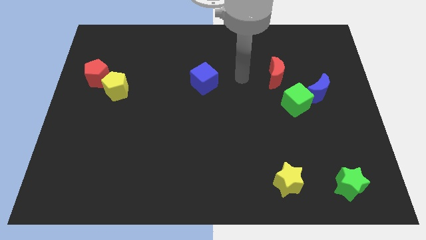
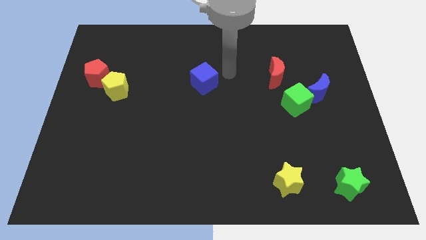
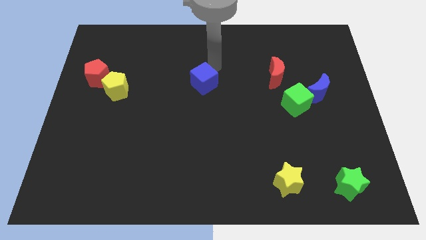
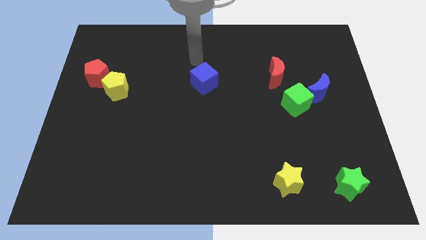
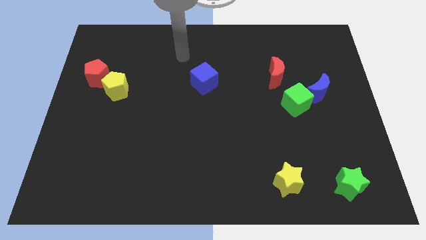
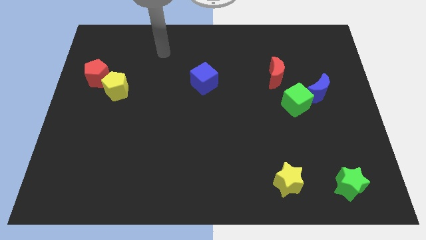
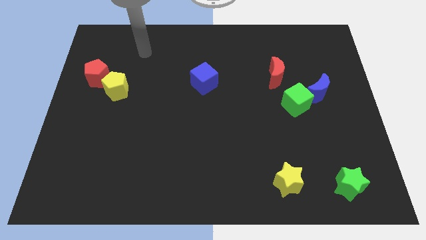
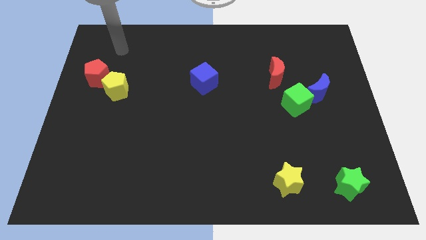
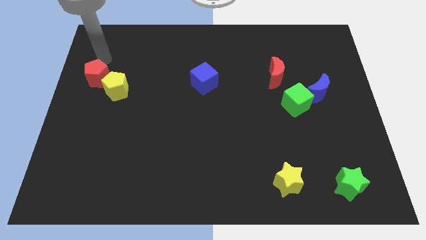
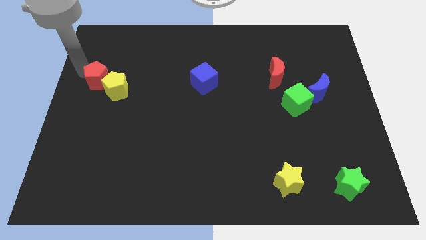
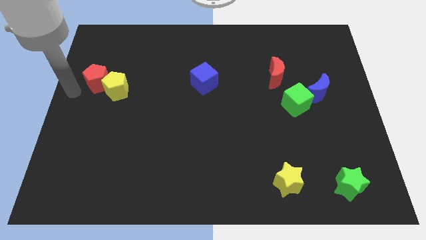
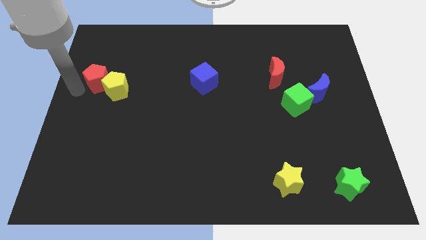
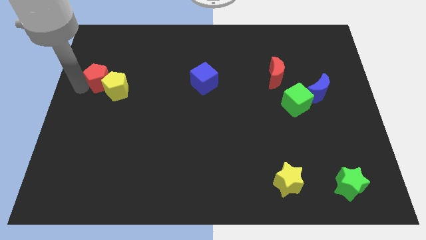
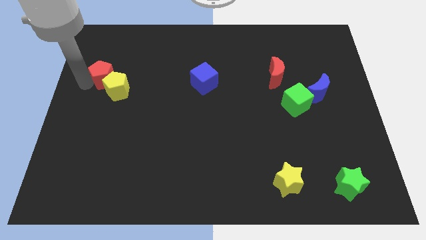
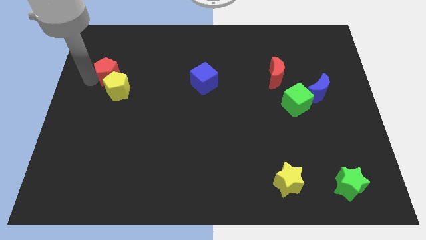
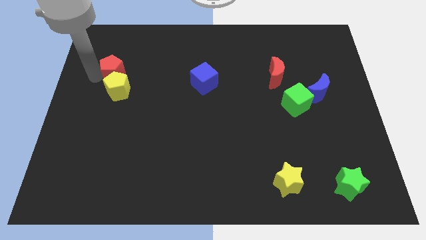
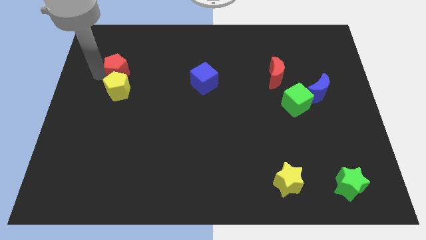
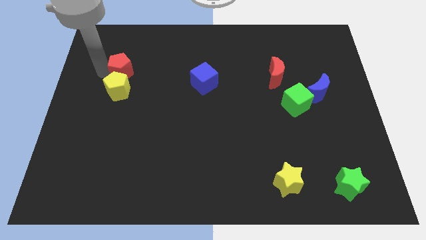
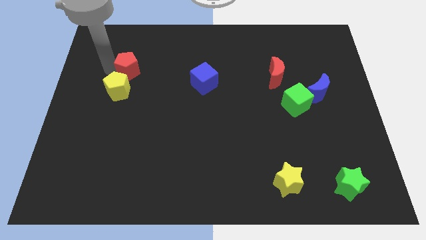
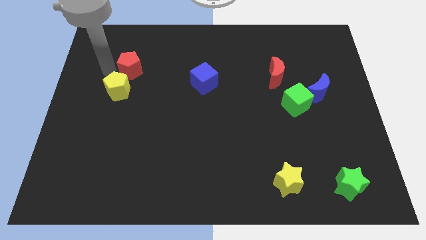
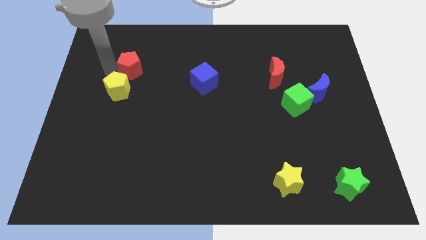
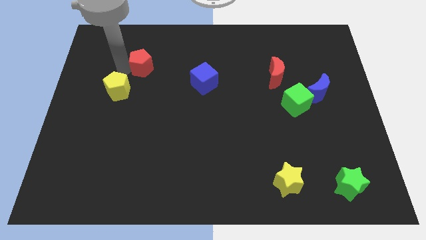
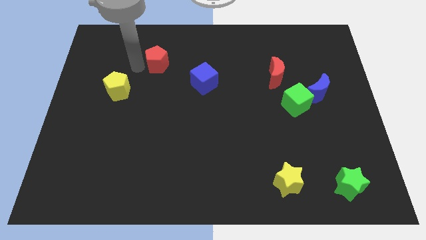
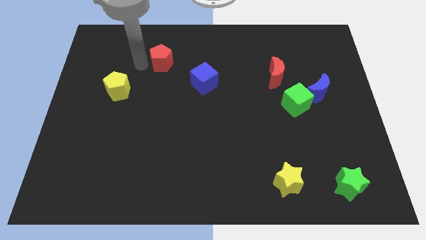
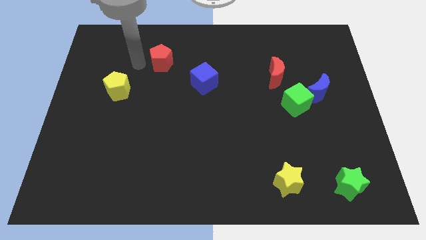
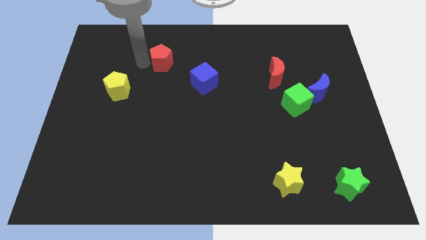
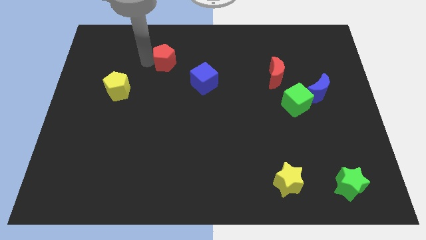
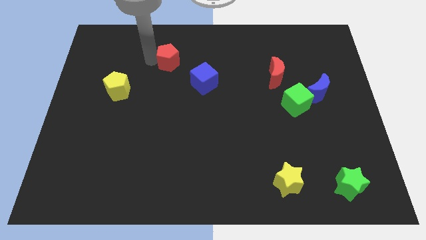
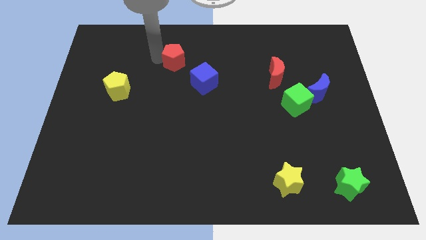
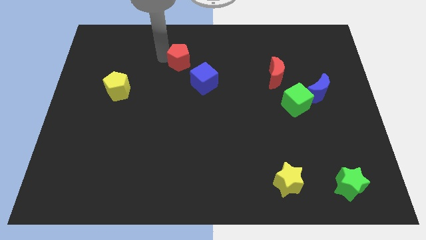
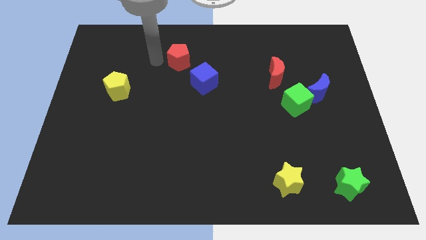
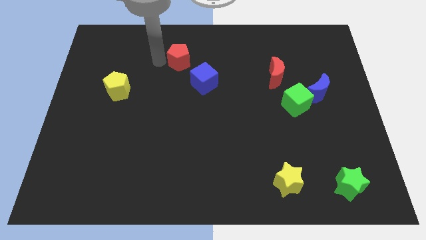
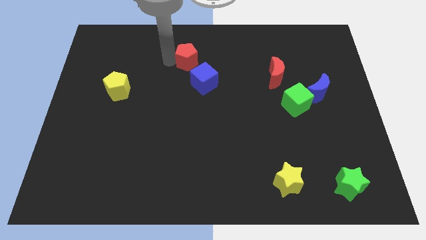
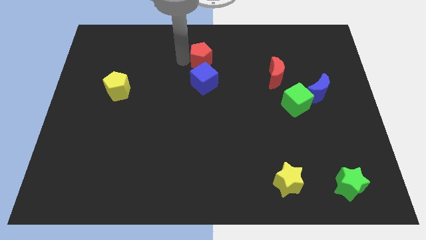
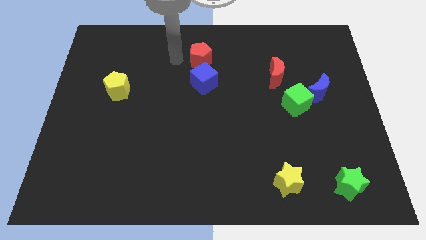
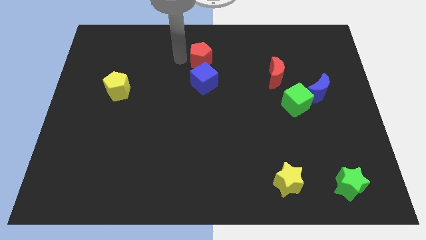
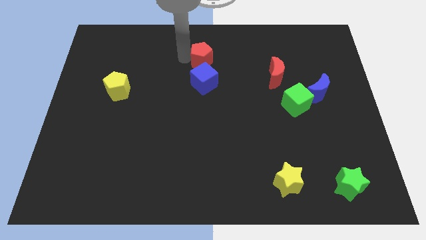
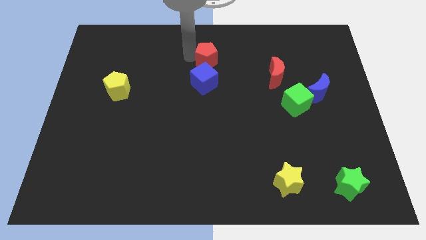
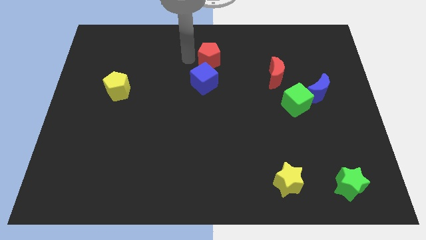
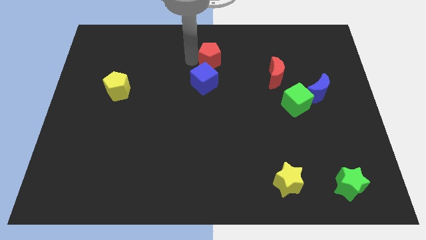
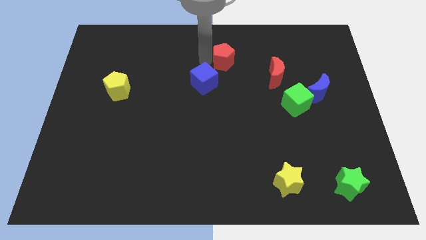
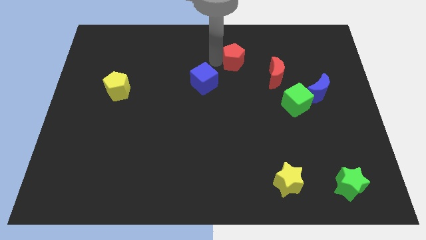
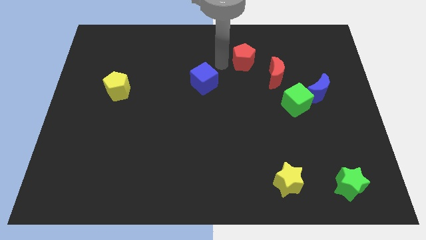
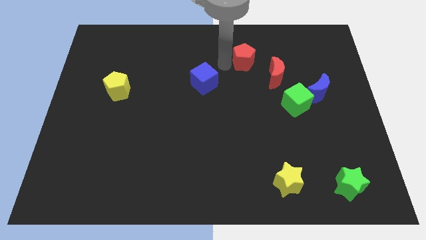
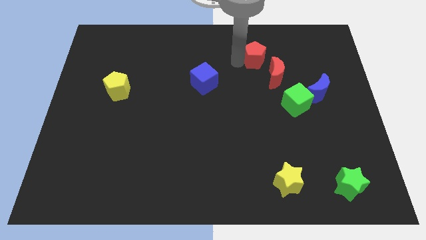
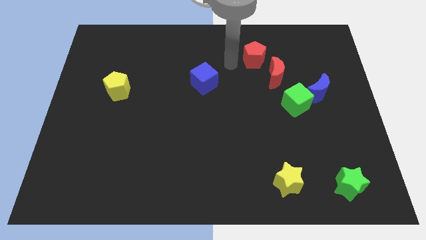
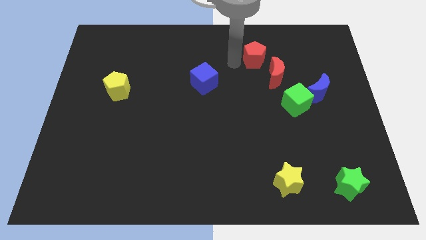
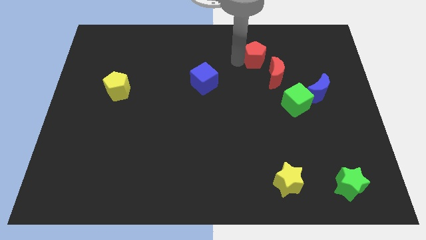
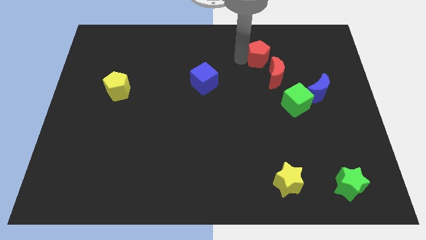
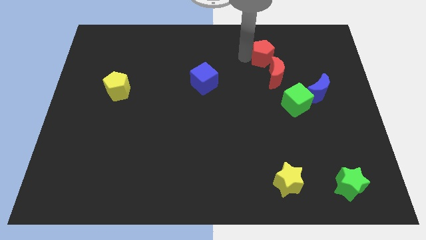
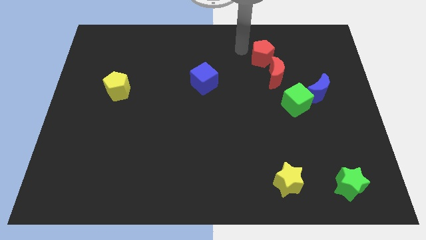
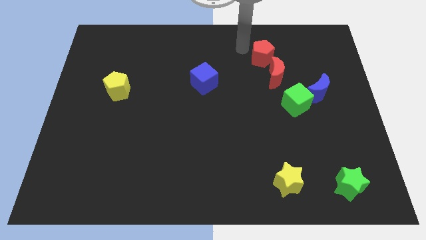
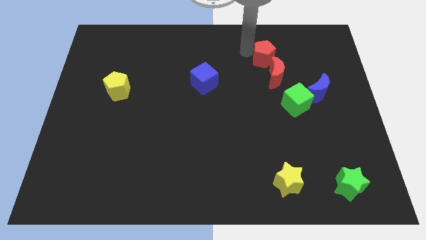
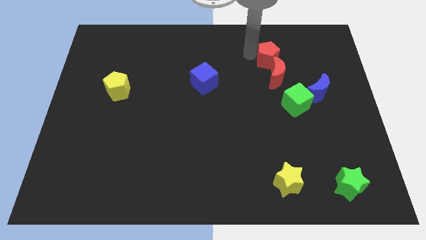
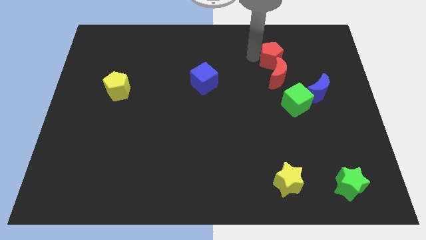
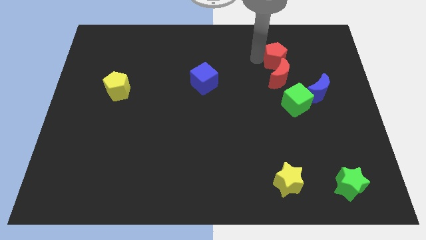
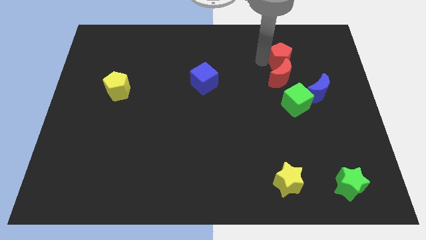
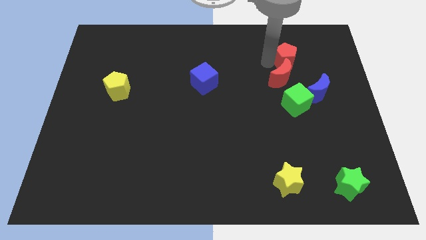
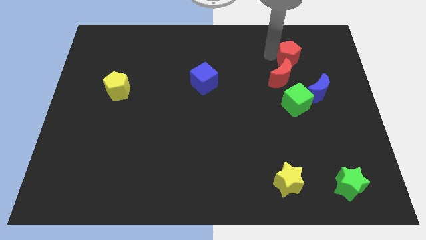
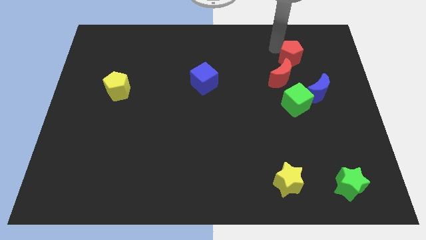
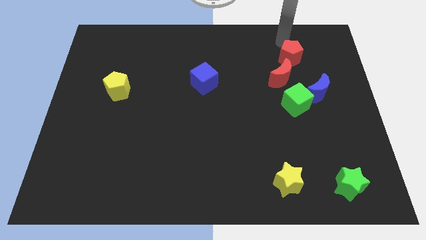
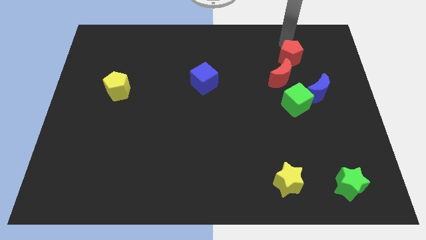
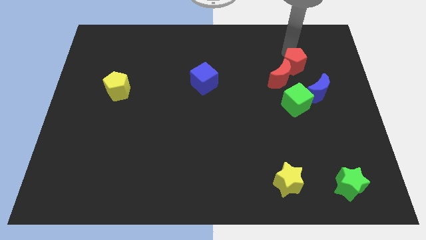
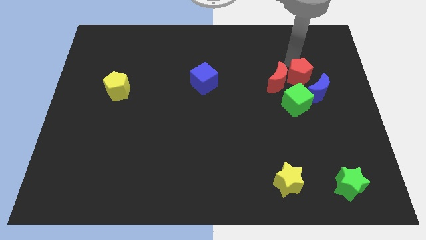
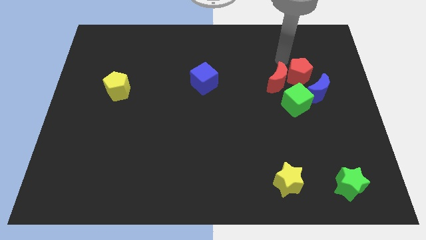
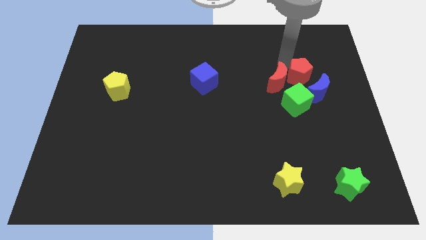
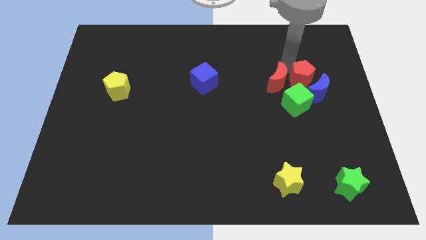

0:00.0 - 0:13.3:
slide the red pentagon close to the blue moon
